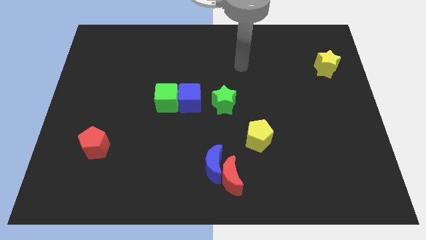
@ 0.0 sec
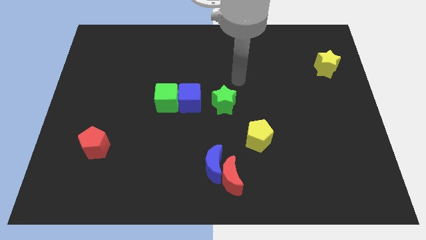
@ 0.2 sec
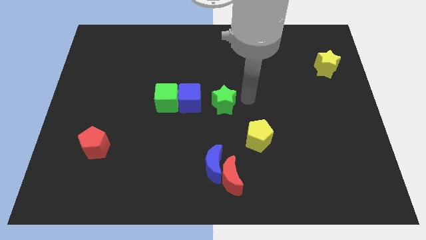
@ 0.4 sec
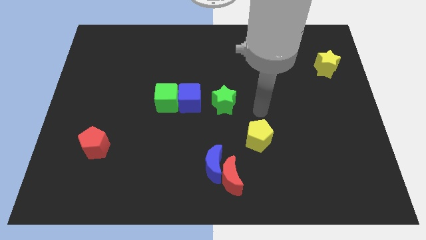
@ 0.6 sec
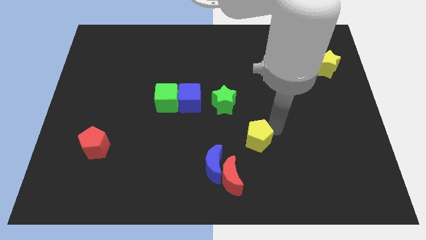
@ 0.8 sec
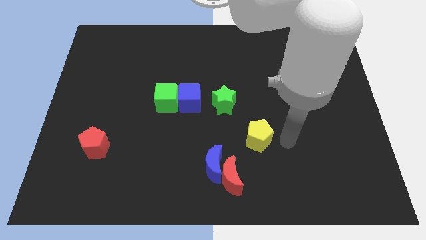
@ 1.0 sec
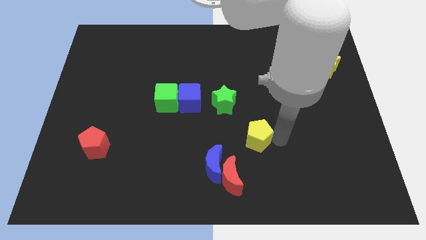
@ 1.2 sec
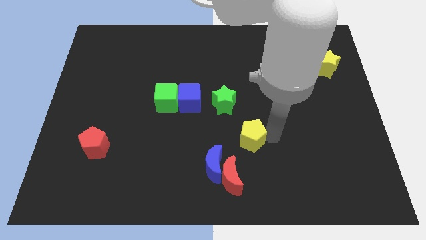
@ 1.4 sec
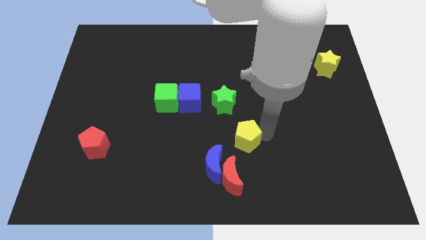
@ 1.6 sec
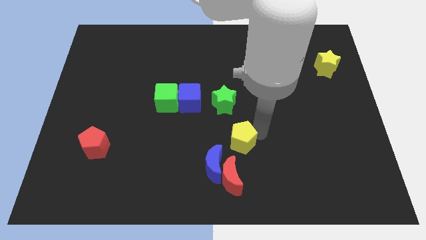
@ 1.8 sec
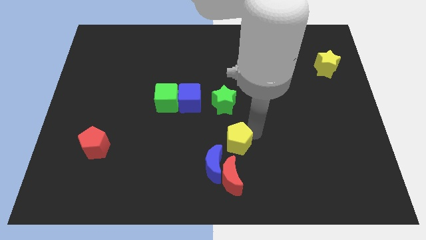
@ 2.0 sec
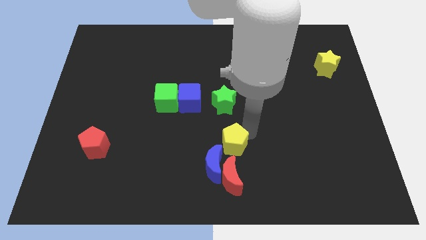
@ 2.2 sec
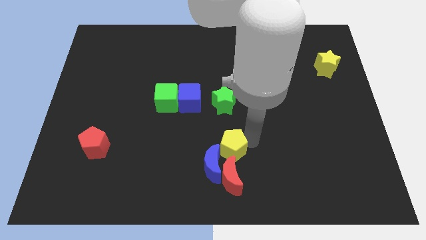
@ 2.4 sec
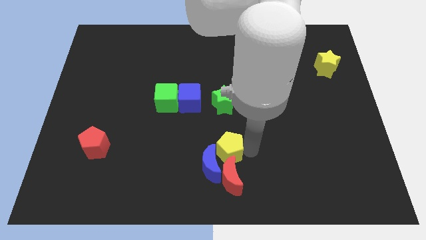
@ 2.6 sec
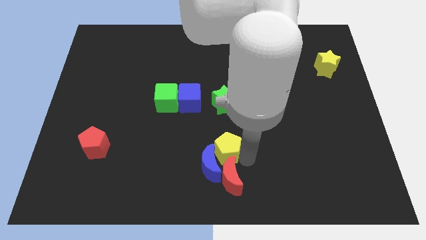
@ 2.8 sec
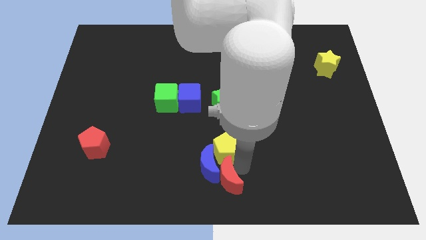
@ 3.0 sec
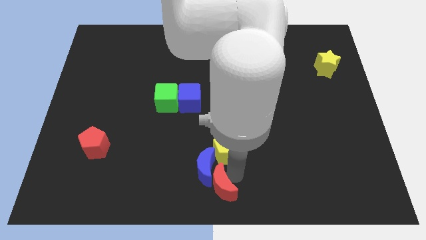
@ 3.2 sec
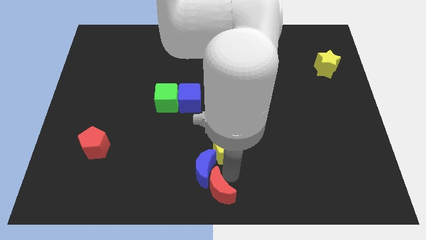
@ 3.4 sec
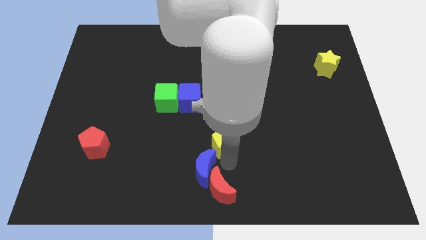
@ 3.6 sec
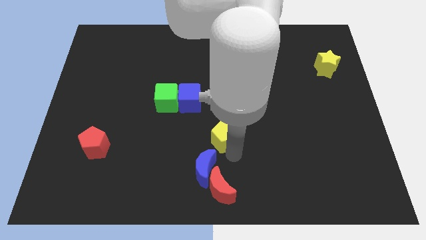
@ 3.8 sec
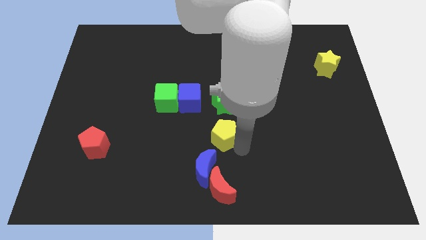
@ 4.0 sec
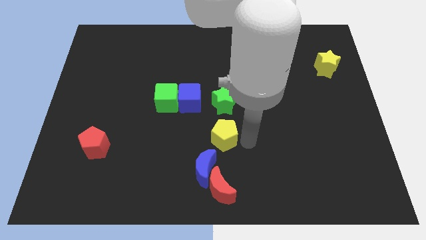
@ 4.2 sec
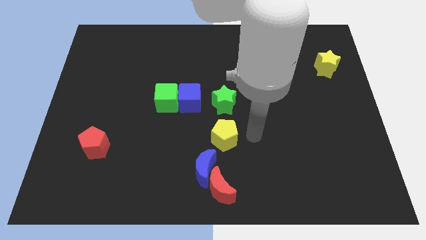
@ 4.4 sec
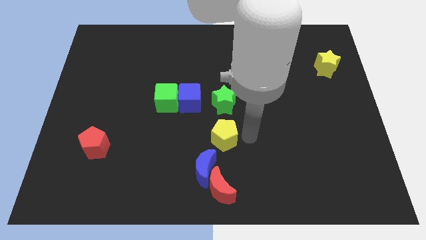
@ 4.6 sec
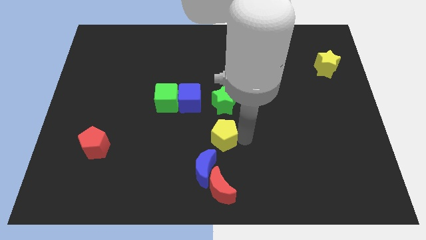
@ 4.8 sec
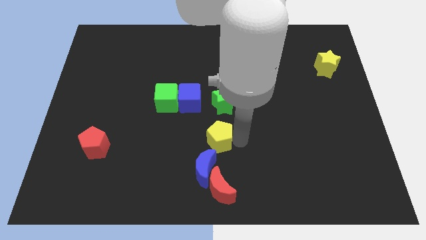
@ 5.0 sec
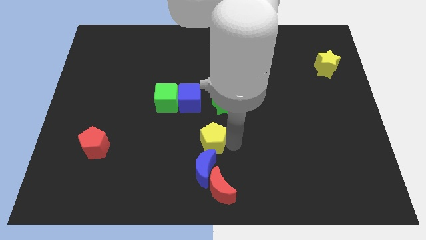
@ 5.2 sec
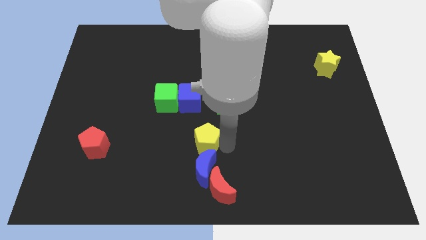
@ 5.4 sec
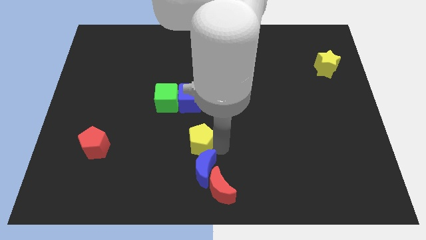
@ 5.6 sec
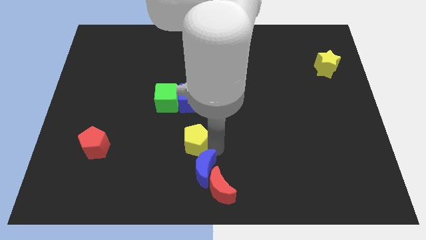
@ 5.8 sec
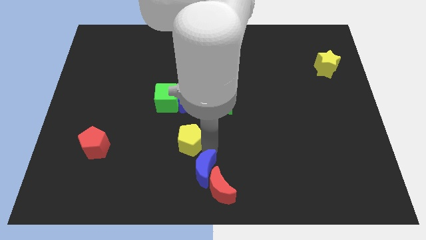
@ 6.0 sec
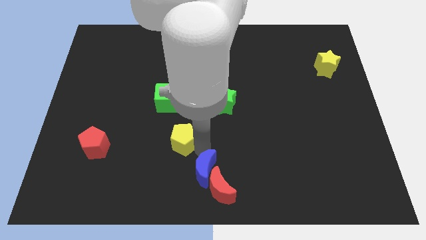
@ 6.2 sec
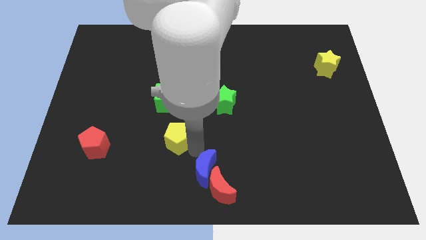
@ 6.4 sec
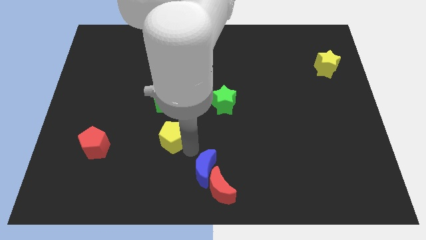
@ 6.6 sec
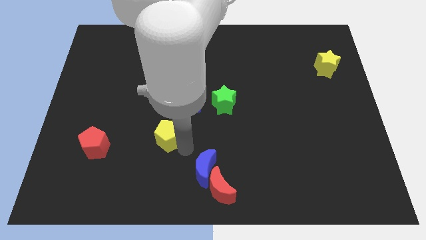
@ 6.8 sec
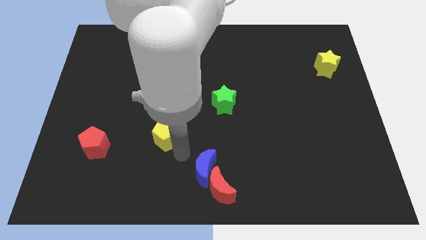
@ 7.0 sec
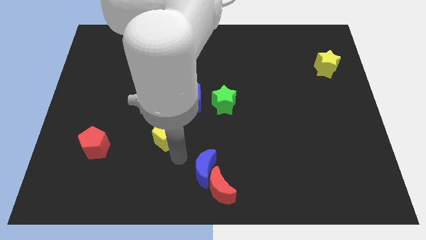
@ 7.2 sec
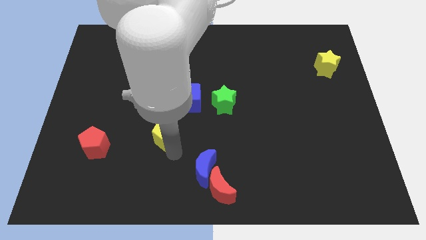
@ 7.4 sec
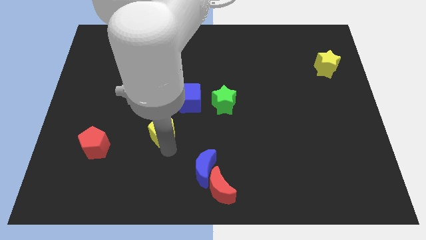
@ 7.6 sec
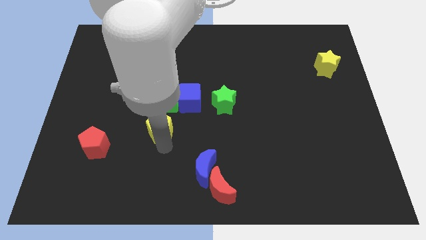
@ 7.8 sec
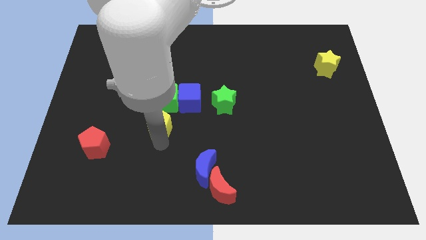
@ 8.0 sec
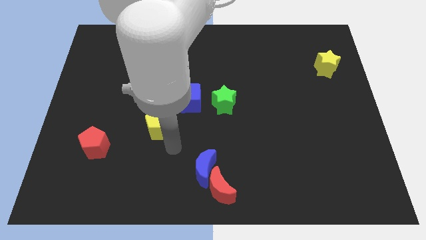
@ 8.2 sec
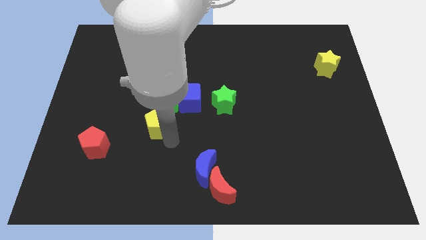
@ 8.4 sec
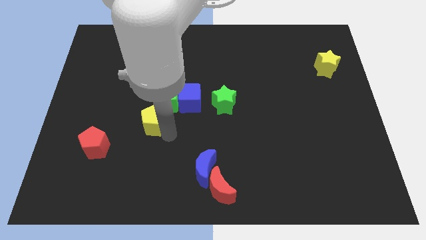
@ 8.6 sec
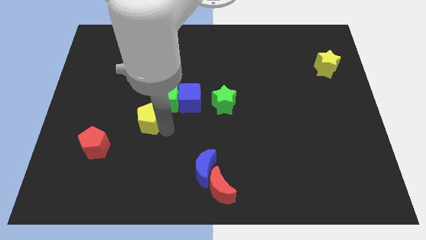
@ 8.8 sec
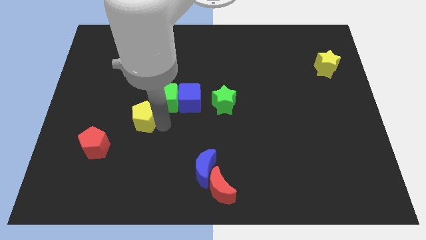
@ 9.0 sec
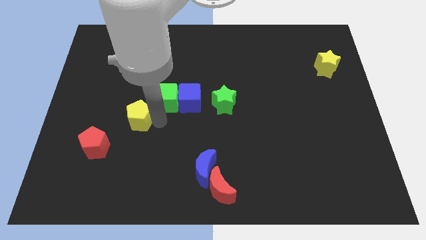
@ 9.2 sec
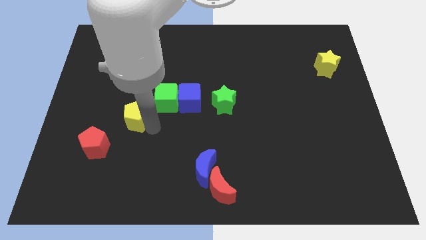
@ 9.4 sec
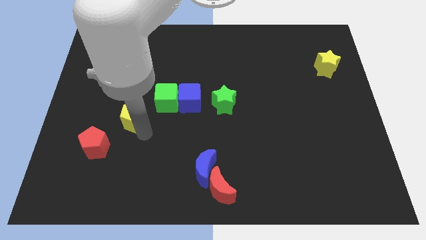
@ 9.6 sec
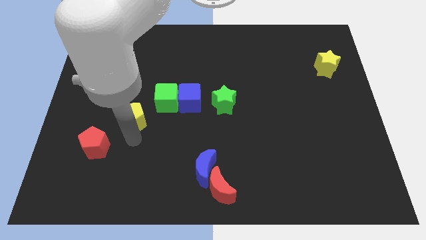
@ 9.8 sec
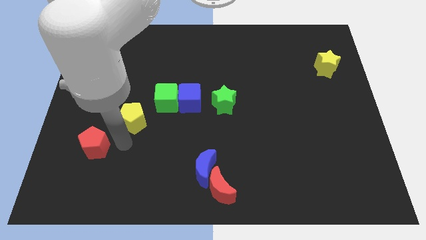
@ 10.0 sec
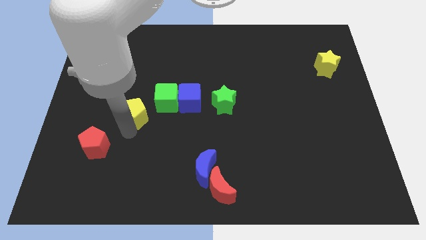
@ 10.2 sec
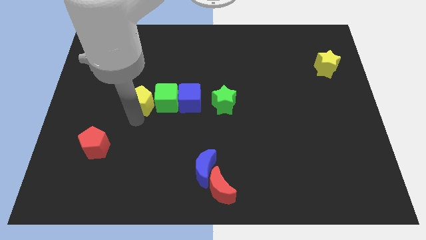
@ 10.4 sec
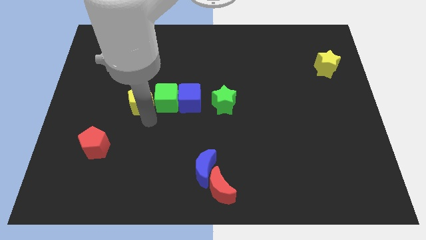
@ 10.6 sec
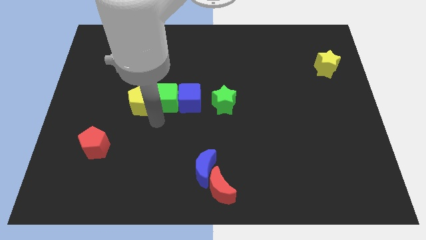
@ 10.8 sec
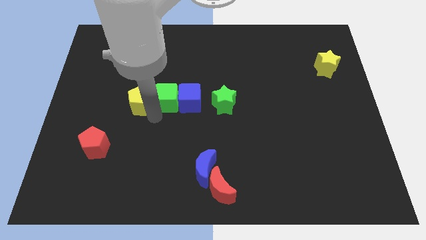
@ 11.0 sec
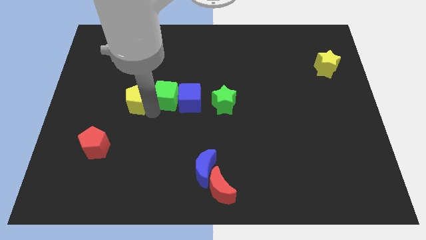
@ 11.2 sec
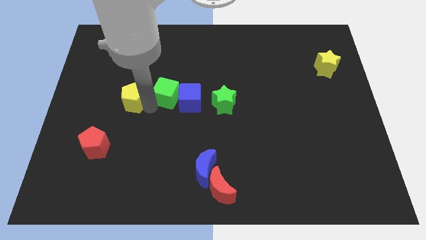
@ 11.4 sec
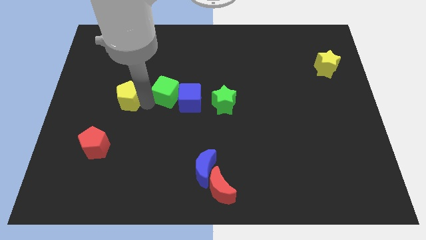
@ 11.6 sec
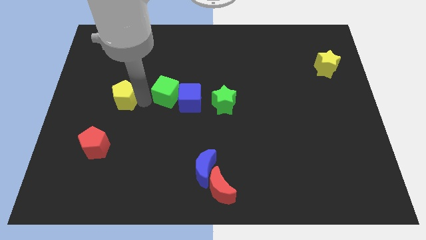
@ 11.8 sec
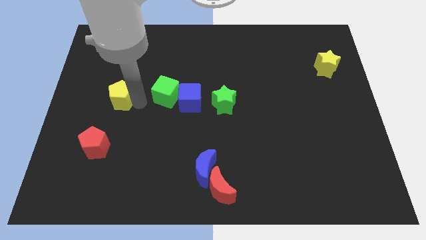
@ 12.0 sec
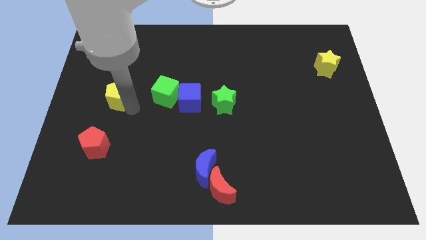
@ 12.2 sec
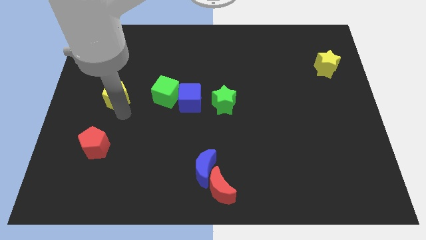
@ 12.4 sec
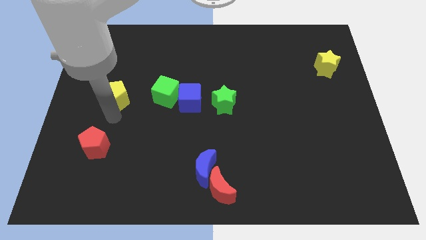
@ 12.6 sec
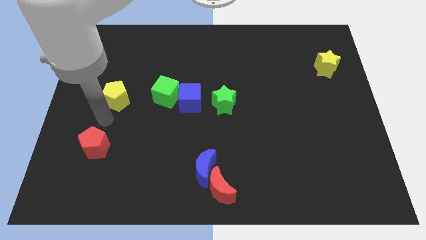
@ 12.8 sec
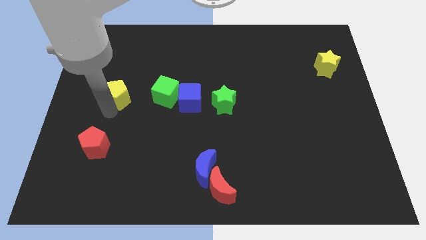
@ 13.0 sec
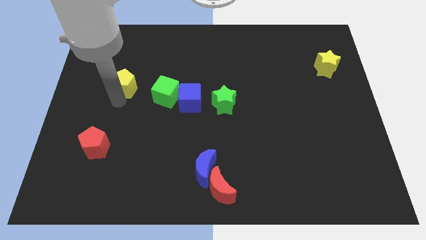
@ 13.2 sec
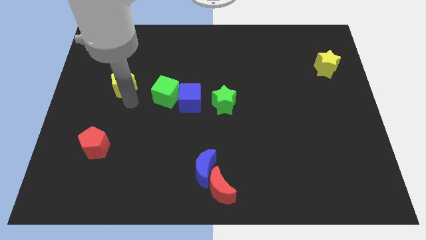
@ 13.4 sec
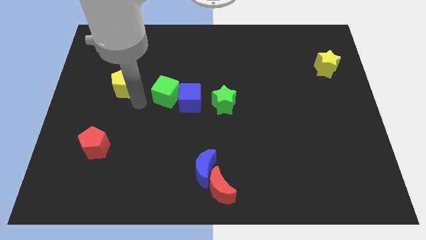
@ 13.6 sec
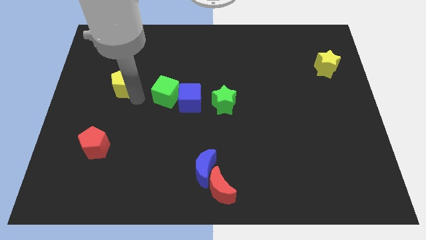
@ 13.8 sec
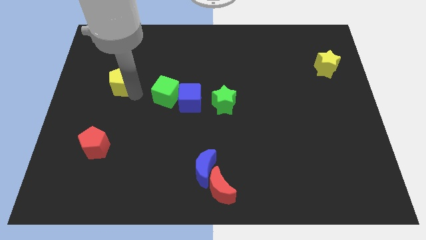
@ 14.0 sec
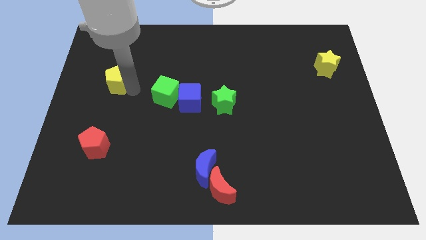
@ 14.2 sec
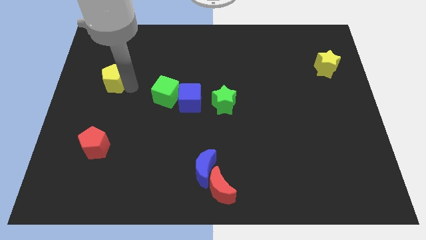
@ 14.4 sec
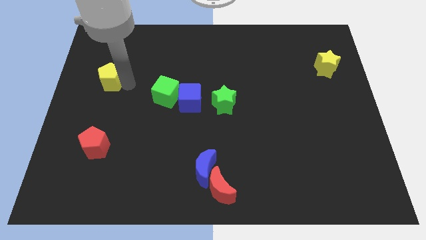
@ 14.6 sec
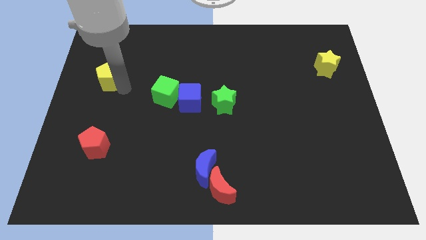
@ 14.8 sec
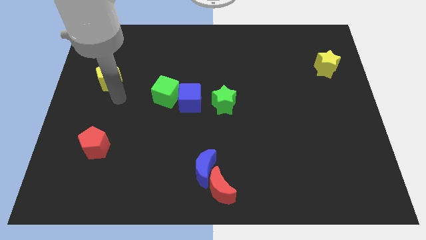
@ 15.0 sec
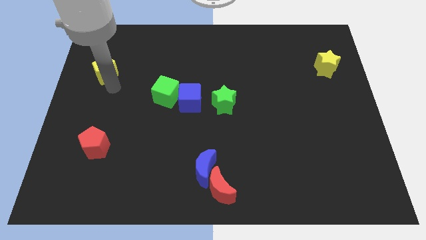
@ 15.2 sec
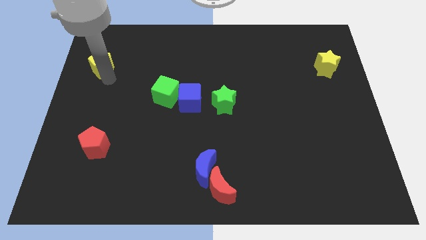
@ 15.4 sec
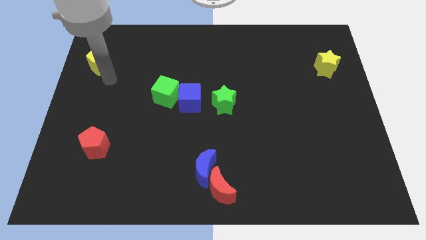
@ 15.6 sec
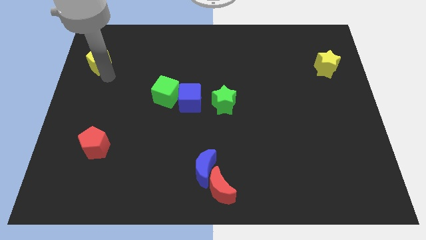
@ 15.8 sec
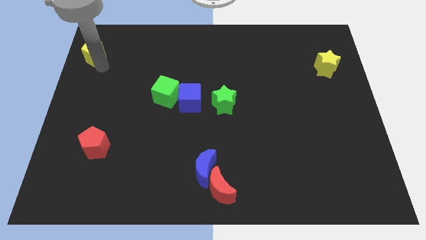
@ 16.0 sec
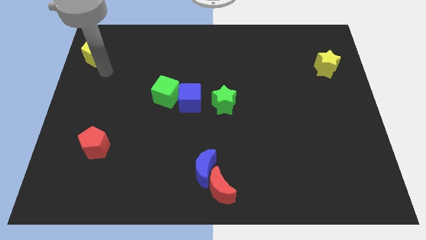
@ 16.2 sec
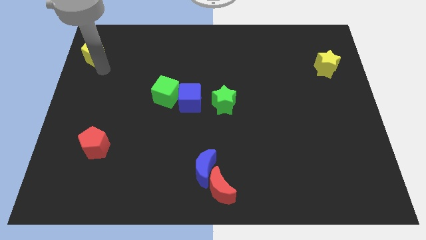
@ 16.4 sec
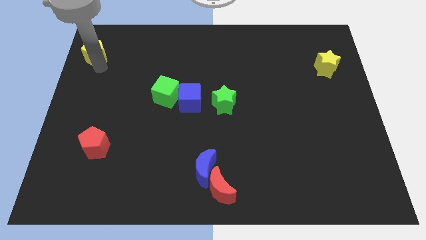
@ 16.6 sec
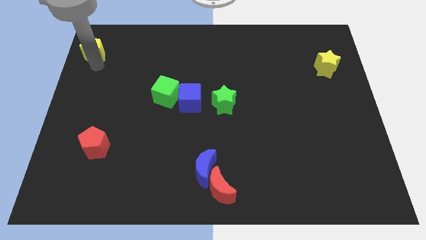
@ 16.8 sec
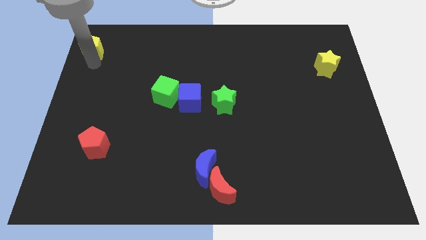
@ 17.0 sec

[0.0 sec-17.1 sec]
move the yellow pentagon to the top left
